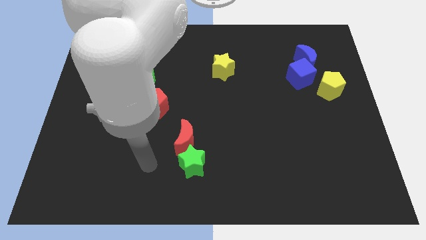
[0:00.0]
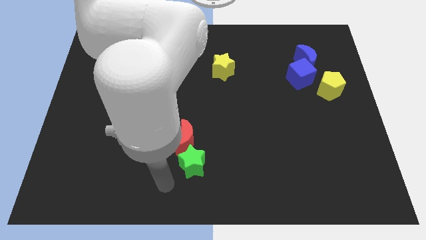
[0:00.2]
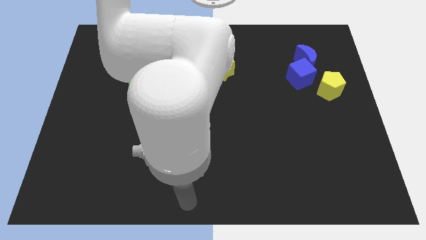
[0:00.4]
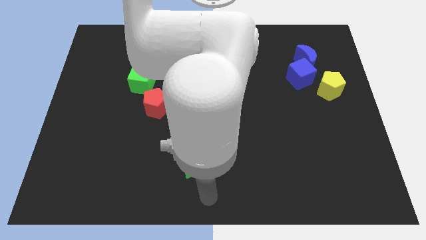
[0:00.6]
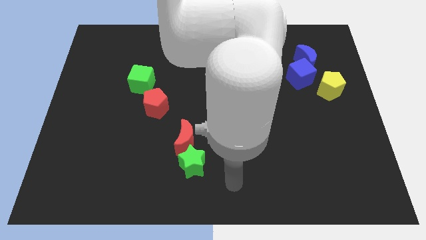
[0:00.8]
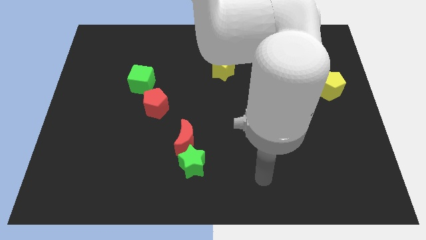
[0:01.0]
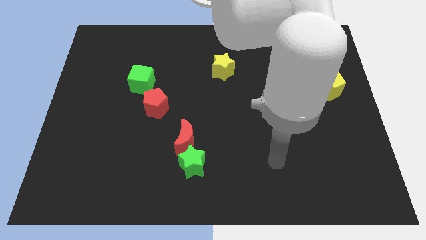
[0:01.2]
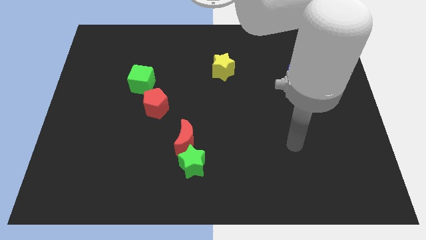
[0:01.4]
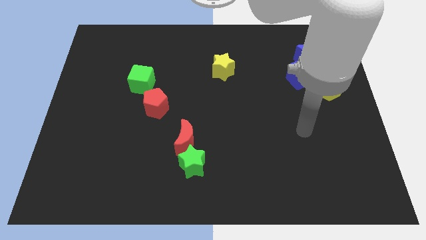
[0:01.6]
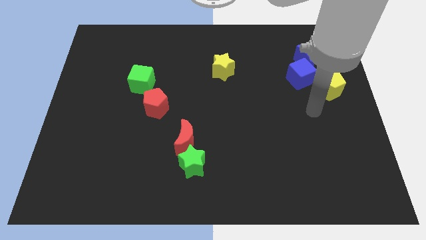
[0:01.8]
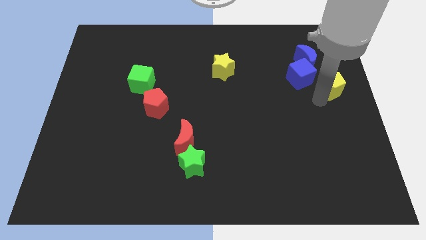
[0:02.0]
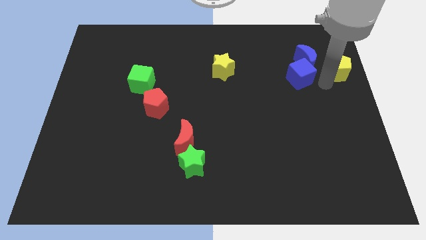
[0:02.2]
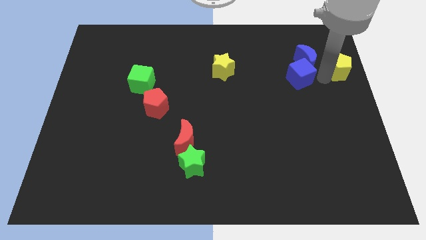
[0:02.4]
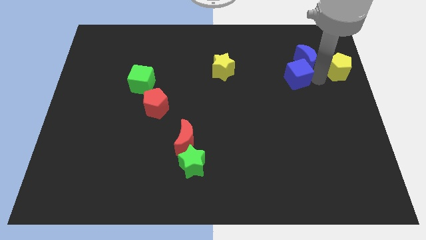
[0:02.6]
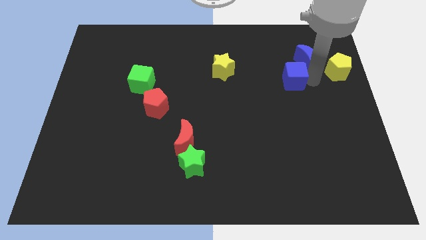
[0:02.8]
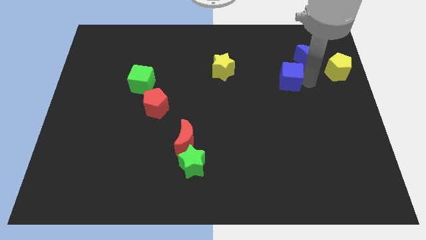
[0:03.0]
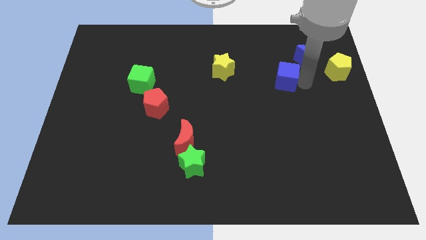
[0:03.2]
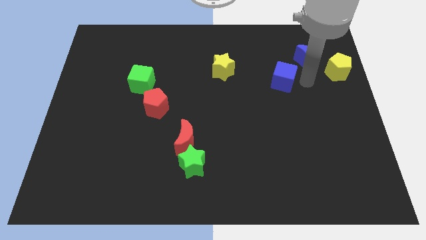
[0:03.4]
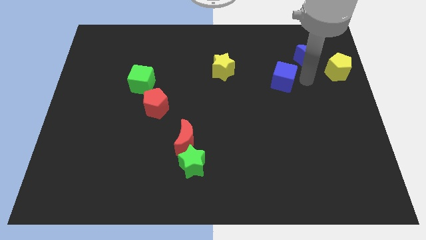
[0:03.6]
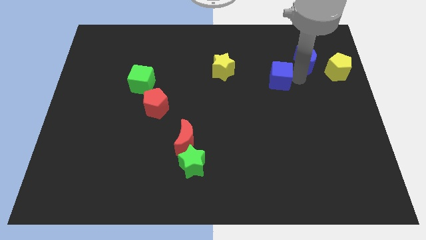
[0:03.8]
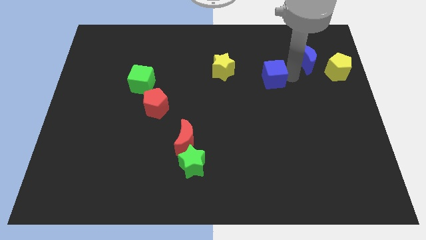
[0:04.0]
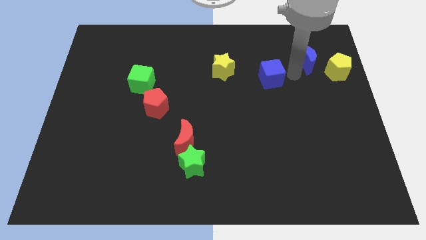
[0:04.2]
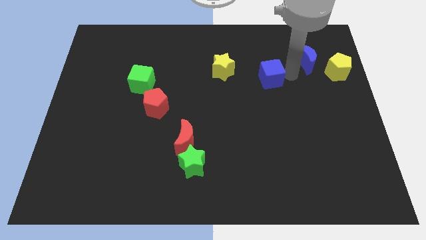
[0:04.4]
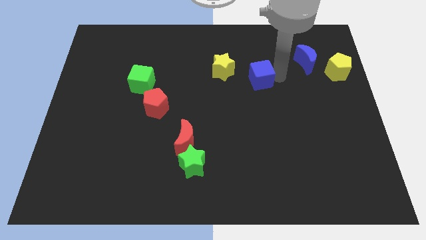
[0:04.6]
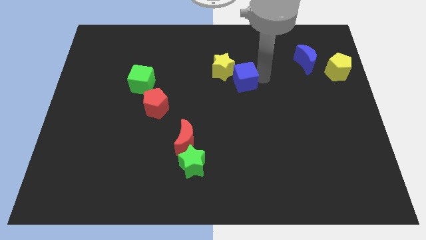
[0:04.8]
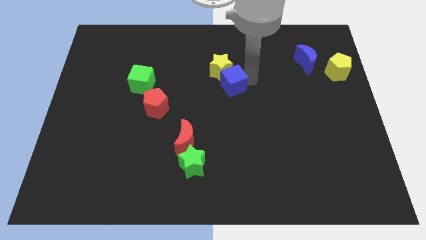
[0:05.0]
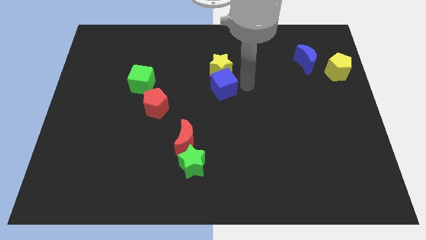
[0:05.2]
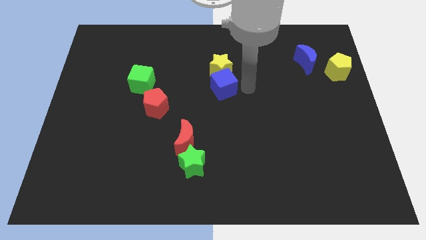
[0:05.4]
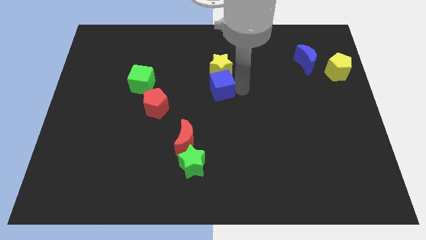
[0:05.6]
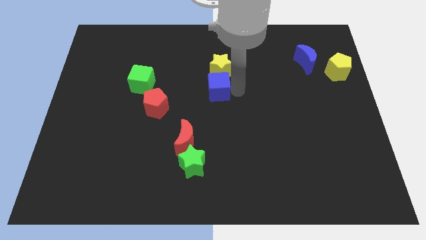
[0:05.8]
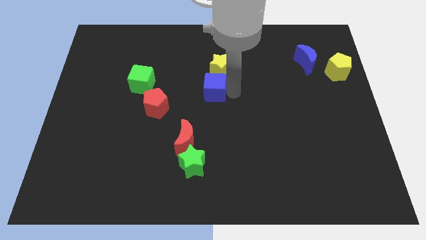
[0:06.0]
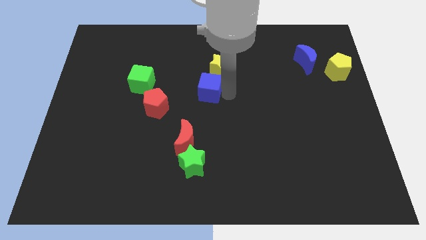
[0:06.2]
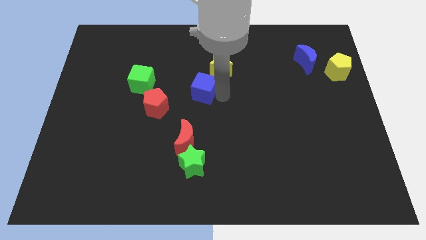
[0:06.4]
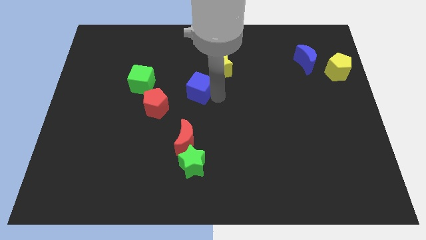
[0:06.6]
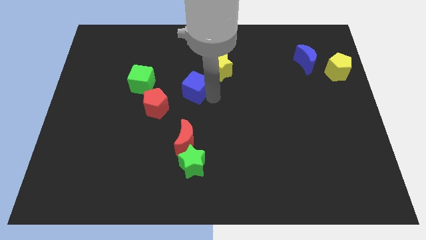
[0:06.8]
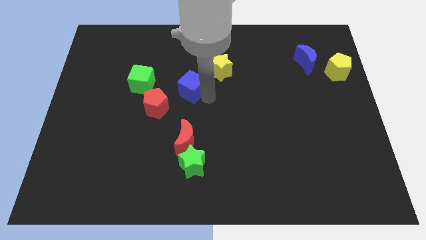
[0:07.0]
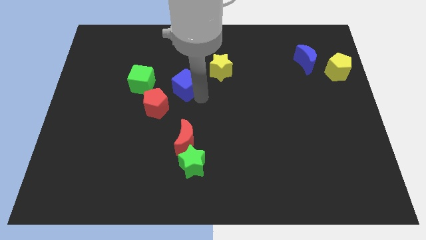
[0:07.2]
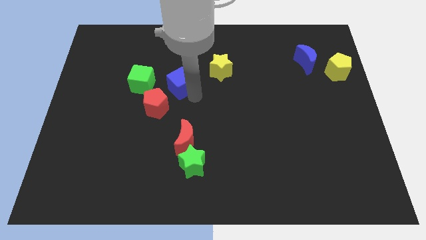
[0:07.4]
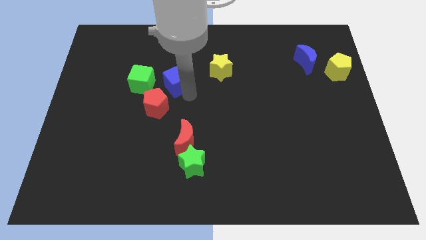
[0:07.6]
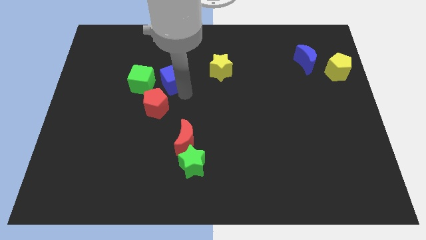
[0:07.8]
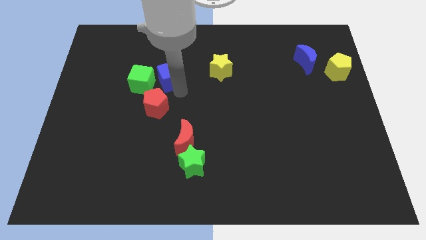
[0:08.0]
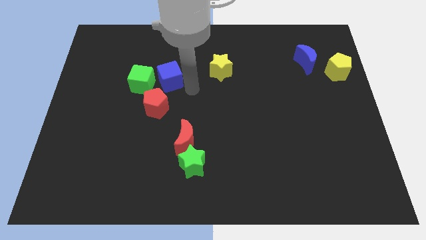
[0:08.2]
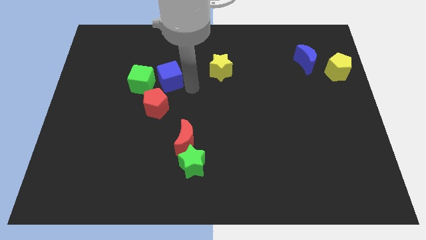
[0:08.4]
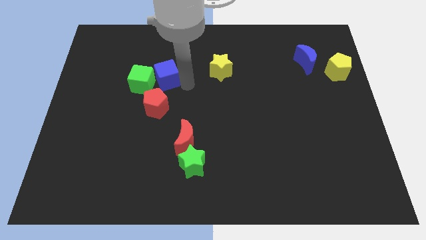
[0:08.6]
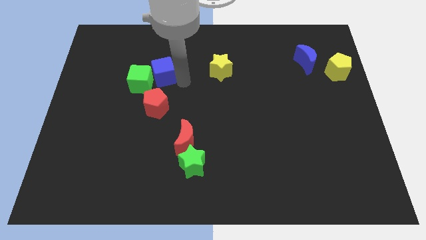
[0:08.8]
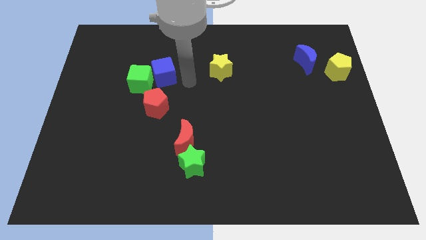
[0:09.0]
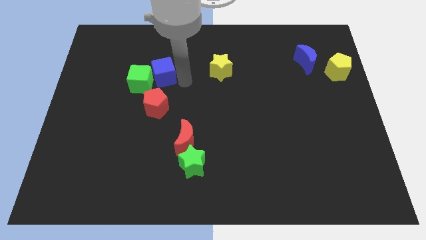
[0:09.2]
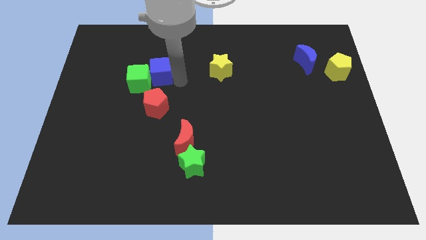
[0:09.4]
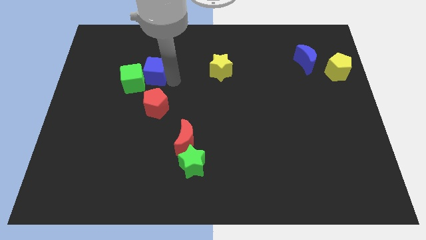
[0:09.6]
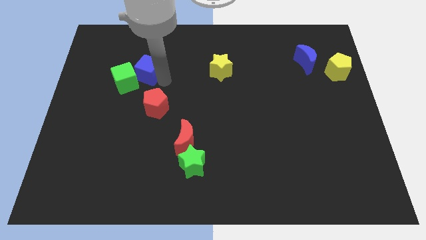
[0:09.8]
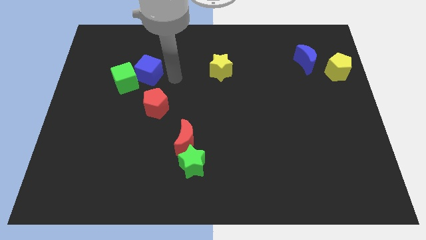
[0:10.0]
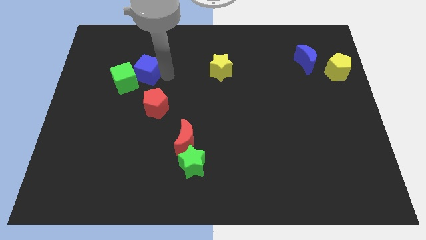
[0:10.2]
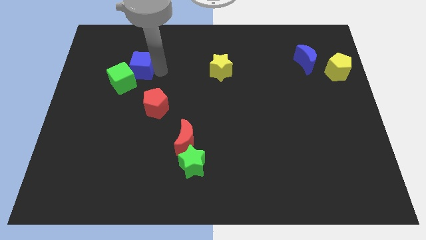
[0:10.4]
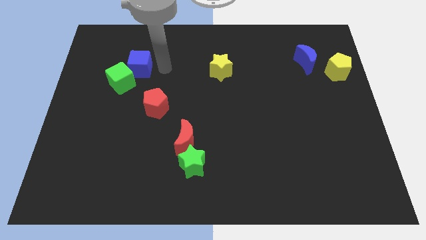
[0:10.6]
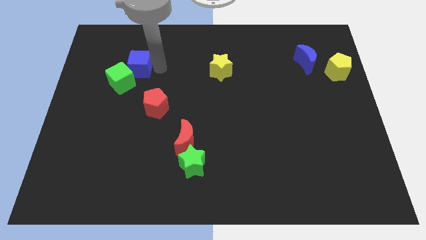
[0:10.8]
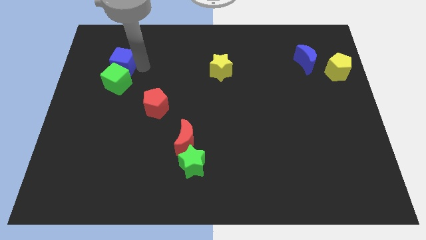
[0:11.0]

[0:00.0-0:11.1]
push the blue cube diagonally up and to the left of the green cube

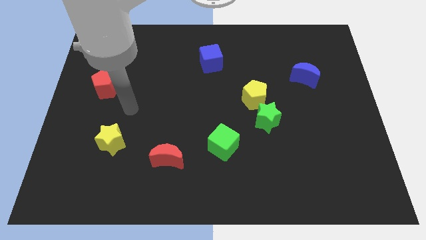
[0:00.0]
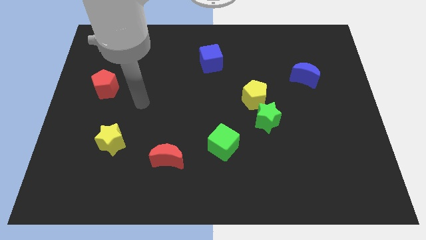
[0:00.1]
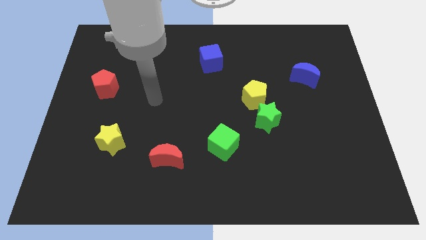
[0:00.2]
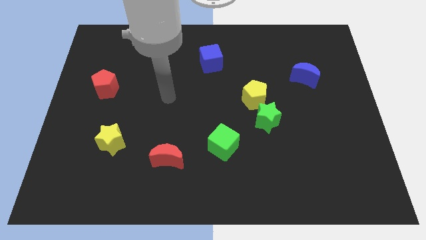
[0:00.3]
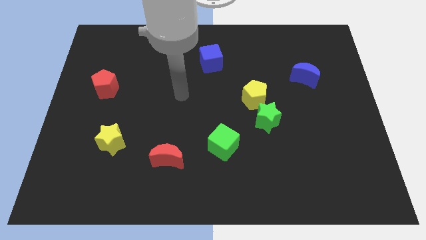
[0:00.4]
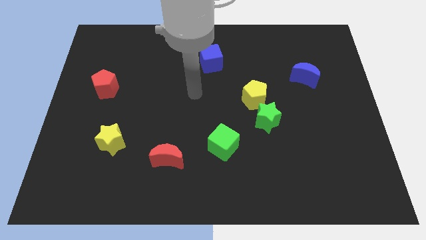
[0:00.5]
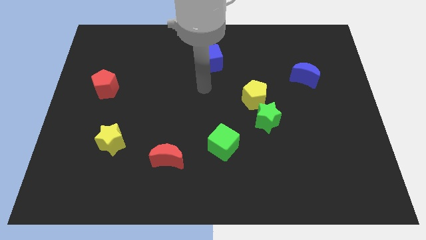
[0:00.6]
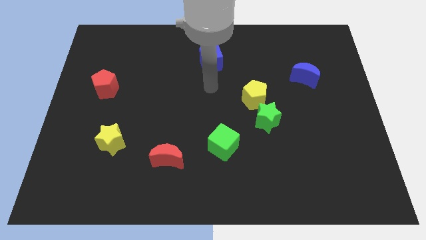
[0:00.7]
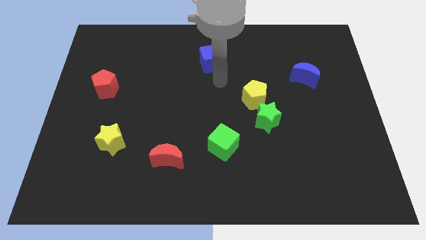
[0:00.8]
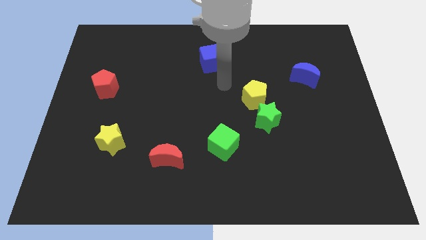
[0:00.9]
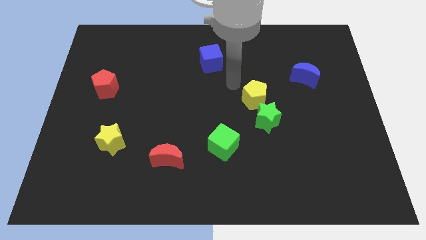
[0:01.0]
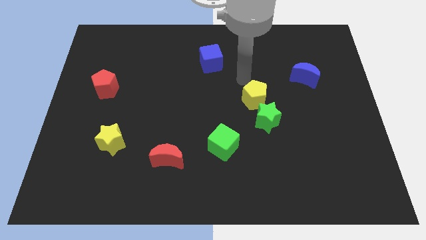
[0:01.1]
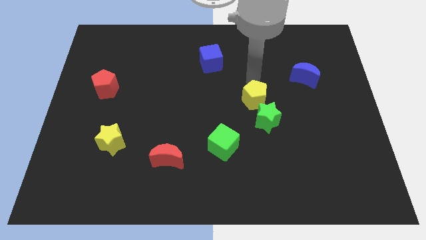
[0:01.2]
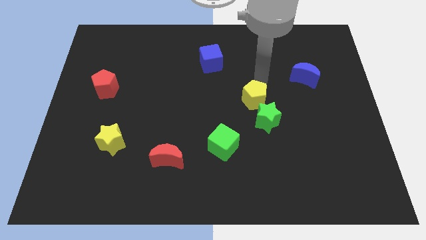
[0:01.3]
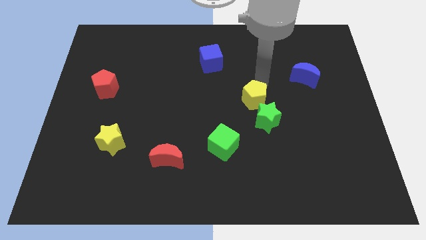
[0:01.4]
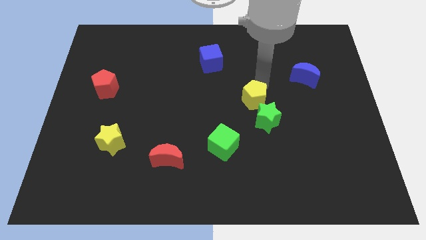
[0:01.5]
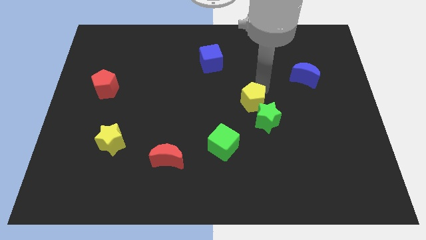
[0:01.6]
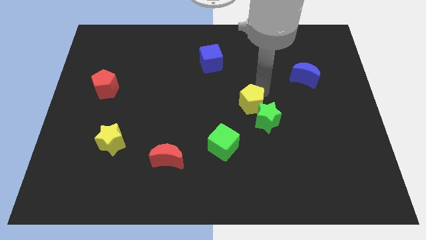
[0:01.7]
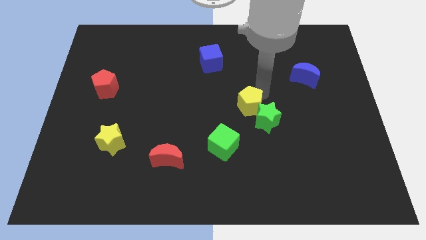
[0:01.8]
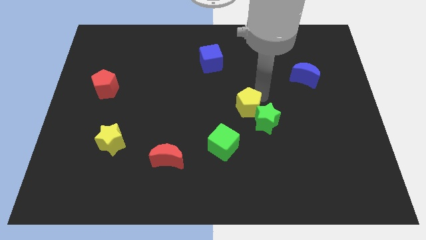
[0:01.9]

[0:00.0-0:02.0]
push the yellow pentagon to the top right side of the green cube
